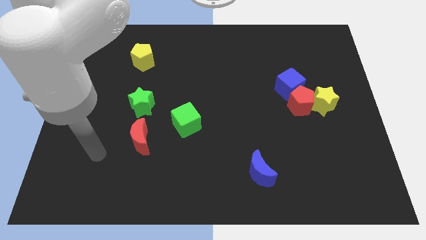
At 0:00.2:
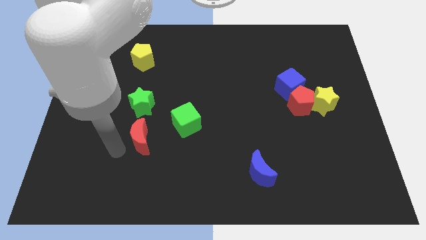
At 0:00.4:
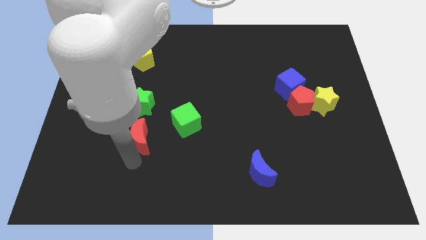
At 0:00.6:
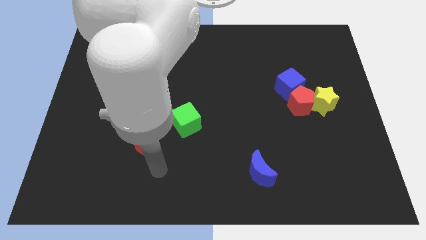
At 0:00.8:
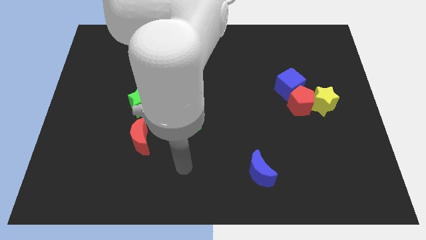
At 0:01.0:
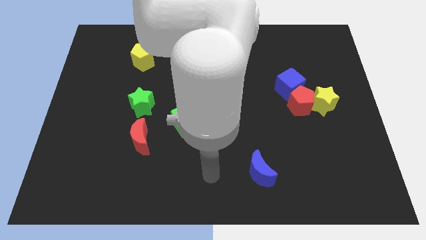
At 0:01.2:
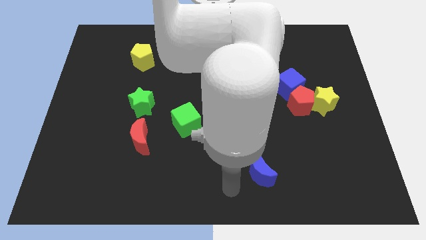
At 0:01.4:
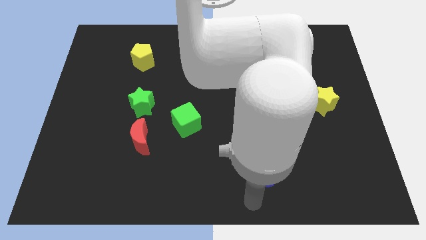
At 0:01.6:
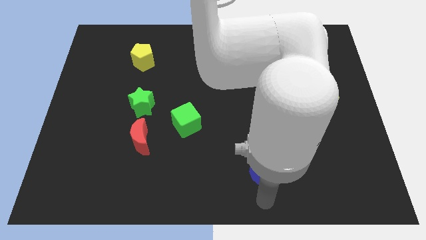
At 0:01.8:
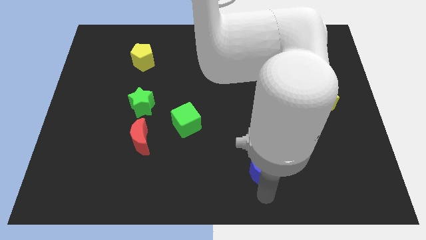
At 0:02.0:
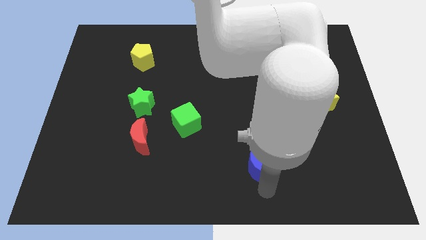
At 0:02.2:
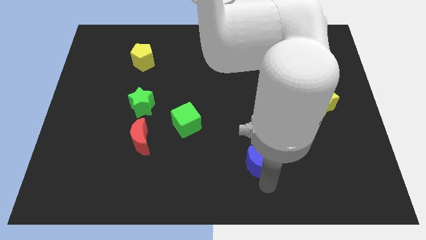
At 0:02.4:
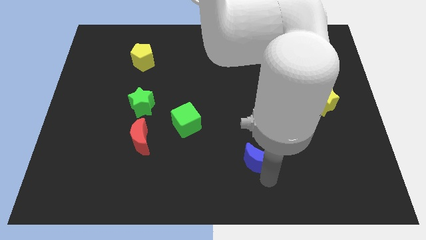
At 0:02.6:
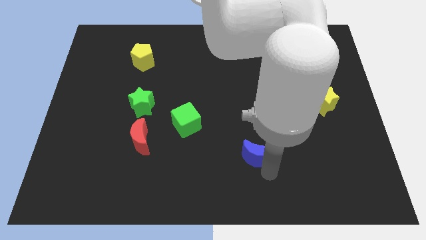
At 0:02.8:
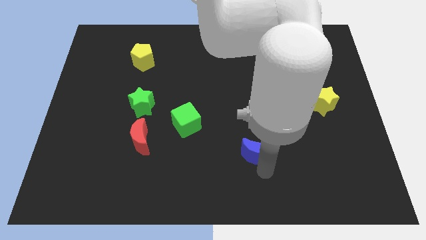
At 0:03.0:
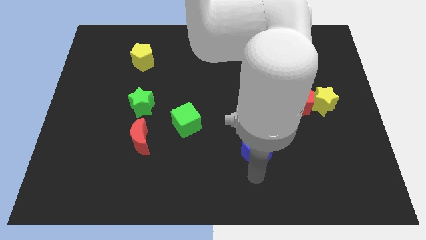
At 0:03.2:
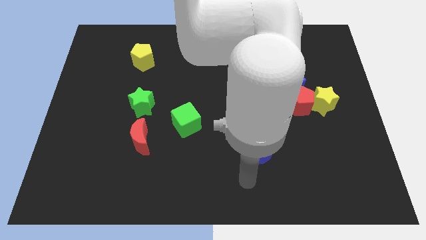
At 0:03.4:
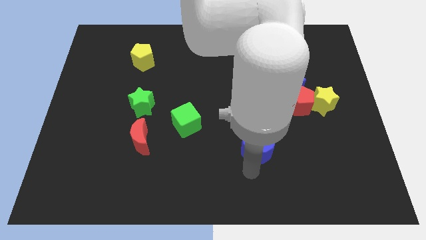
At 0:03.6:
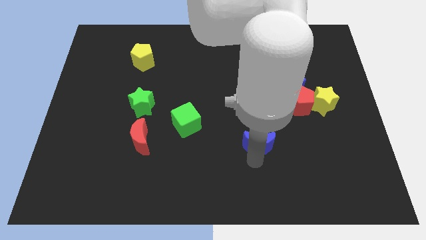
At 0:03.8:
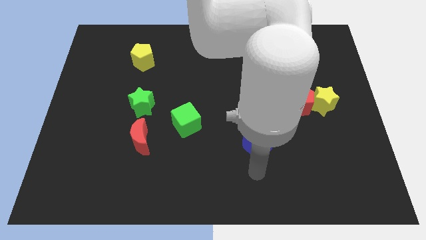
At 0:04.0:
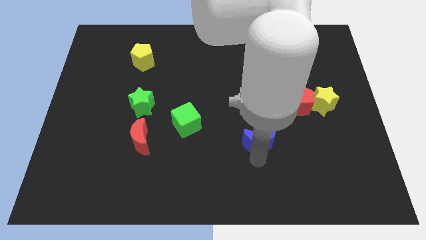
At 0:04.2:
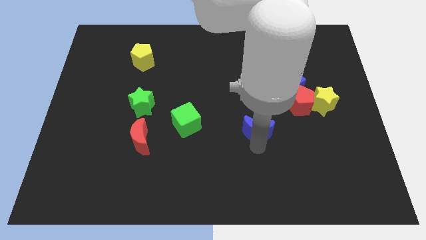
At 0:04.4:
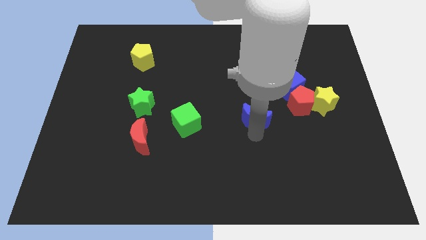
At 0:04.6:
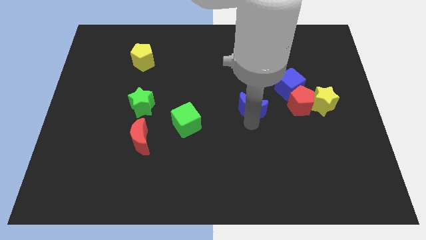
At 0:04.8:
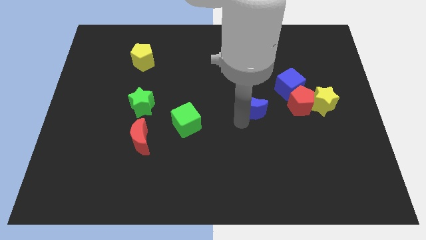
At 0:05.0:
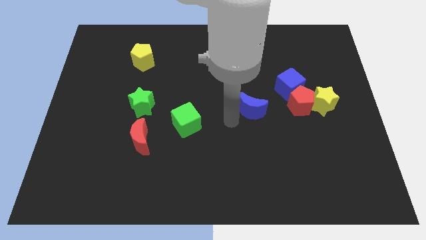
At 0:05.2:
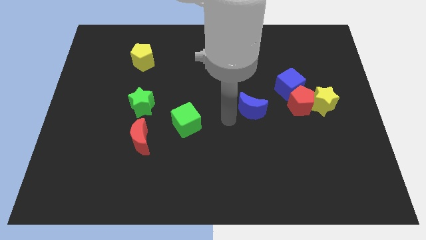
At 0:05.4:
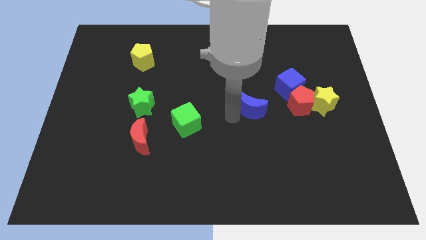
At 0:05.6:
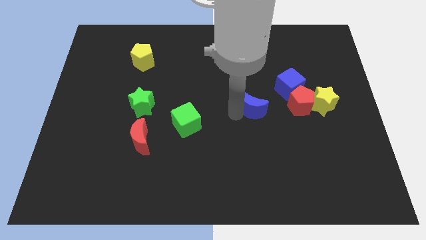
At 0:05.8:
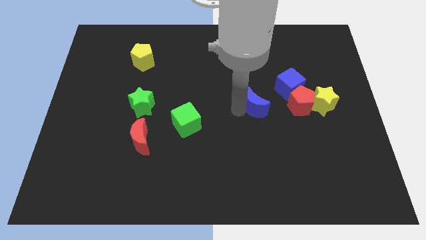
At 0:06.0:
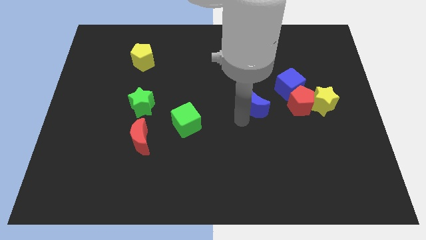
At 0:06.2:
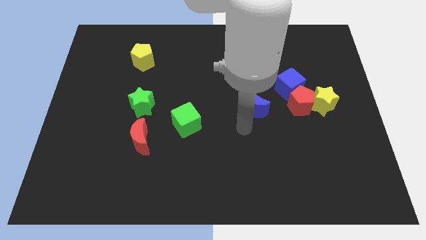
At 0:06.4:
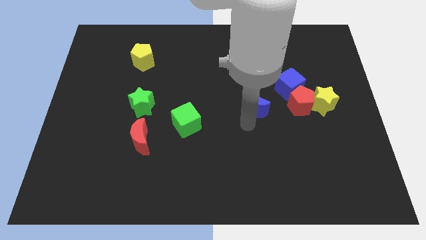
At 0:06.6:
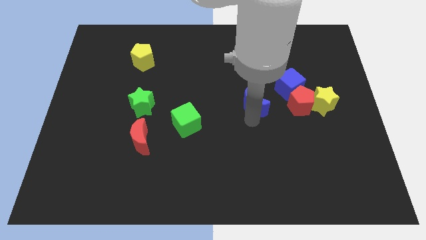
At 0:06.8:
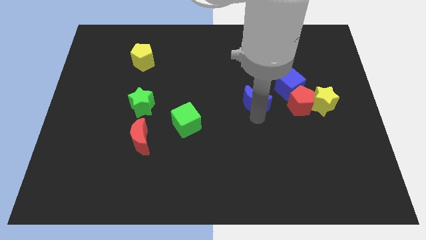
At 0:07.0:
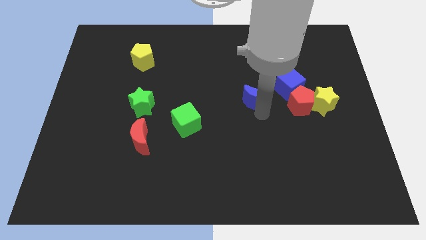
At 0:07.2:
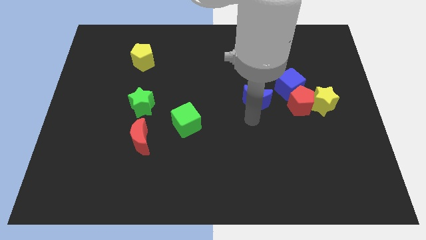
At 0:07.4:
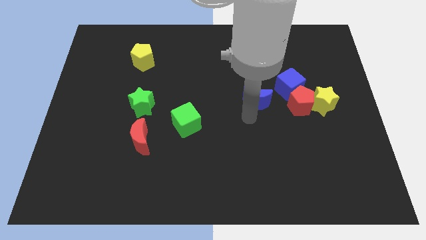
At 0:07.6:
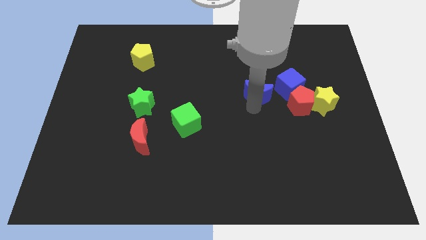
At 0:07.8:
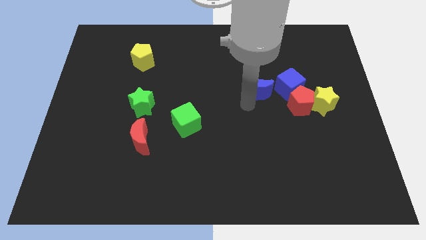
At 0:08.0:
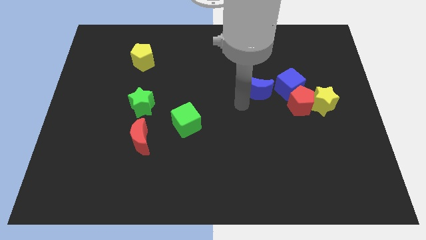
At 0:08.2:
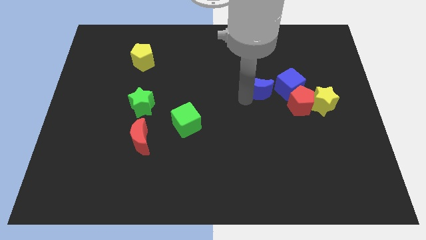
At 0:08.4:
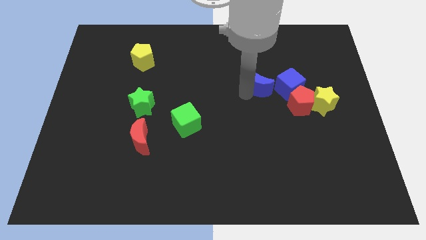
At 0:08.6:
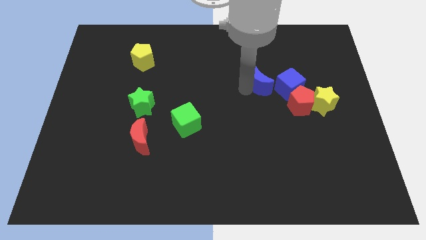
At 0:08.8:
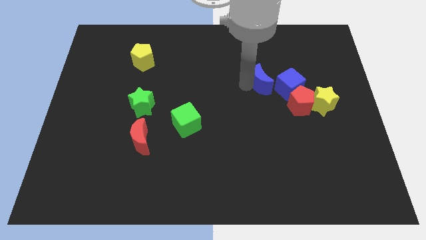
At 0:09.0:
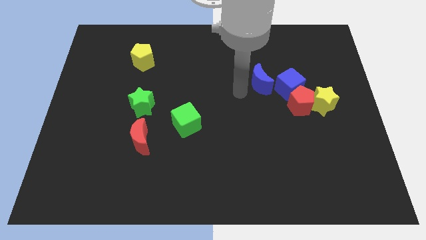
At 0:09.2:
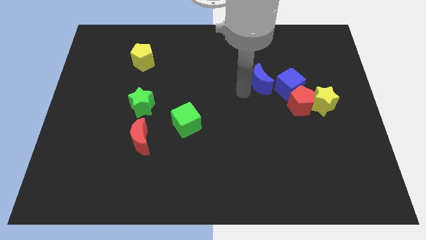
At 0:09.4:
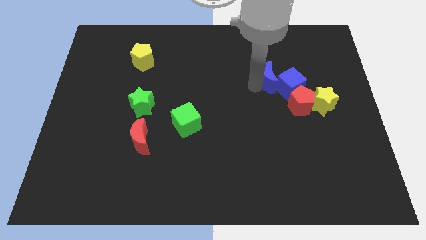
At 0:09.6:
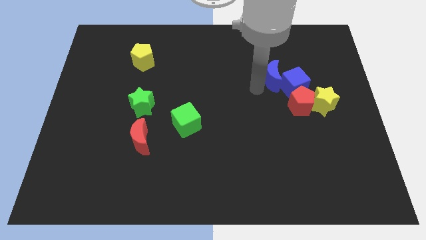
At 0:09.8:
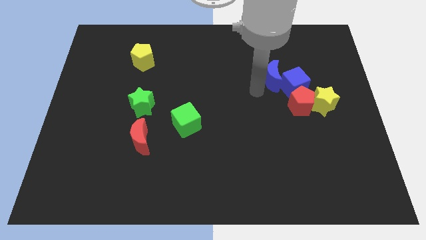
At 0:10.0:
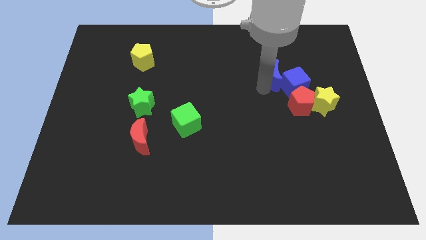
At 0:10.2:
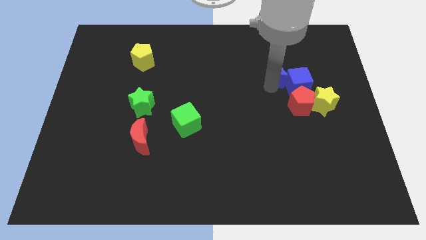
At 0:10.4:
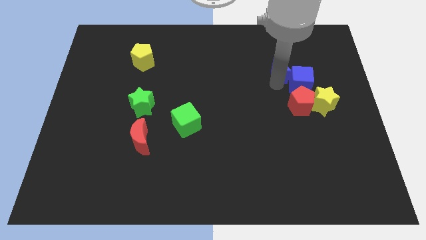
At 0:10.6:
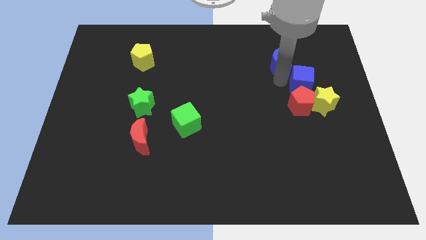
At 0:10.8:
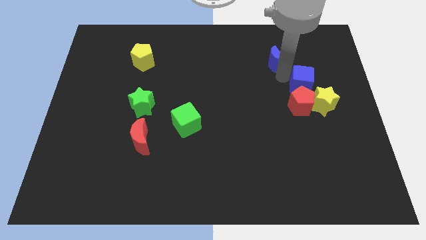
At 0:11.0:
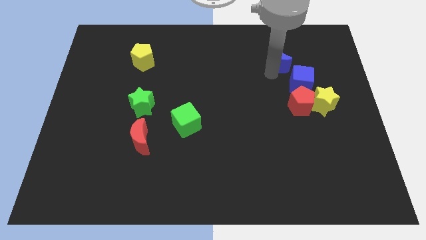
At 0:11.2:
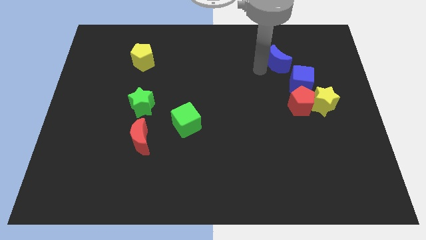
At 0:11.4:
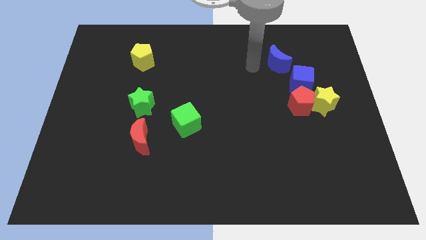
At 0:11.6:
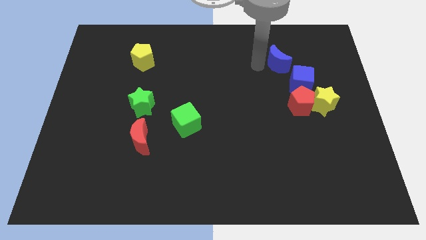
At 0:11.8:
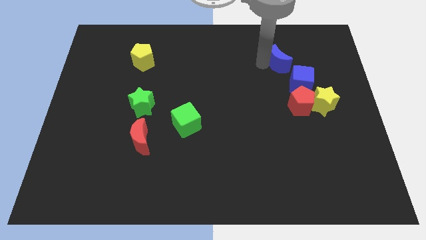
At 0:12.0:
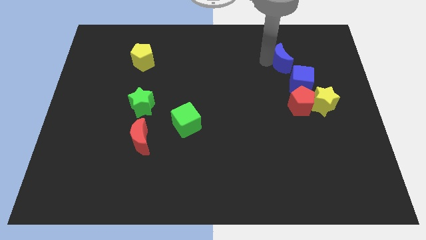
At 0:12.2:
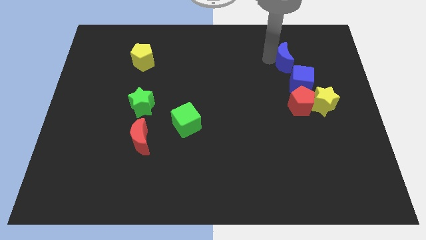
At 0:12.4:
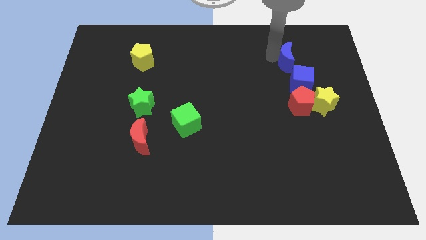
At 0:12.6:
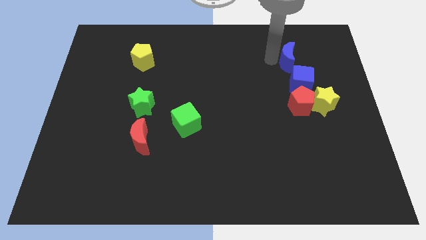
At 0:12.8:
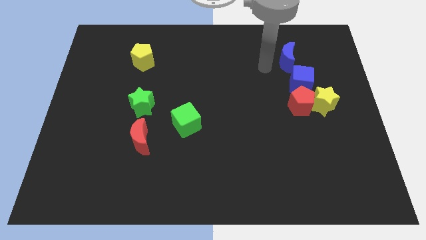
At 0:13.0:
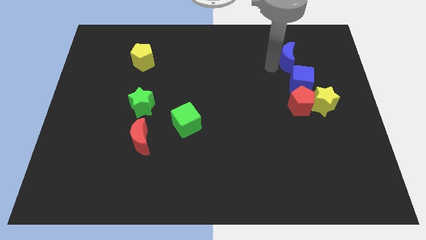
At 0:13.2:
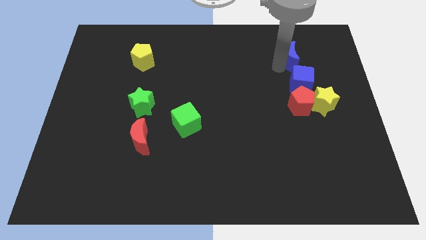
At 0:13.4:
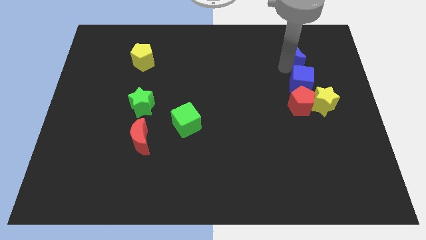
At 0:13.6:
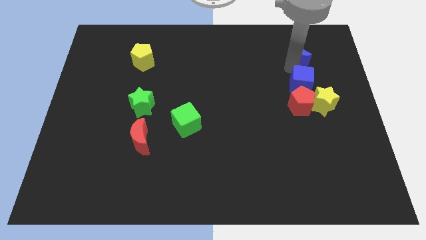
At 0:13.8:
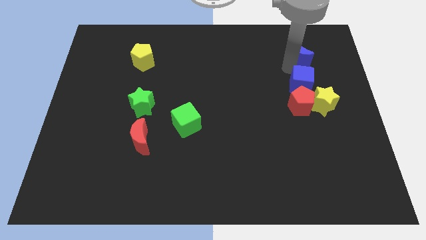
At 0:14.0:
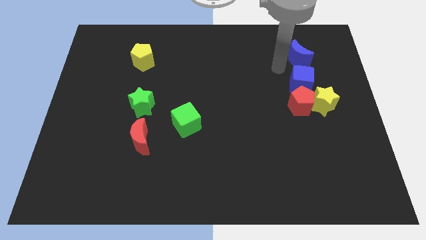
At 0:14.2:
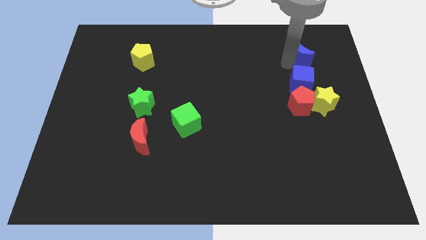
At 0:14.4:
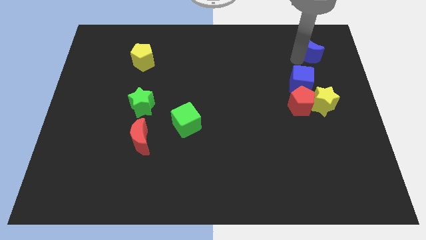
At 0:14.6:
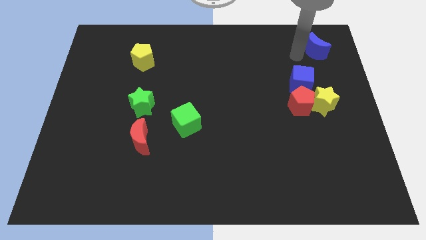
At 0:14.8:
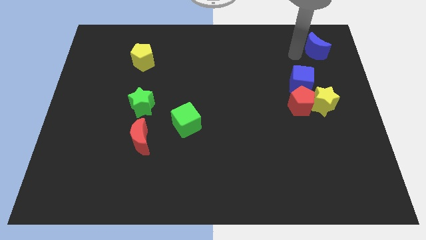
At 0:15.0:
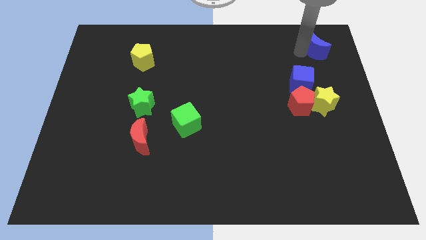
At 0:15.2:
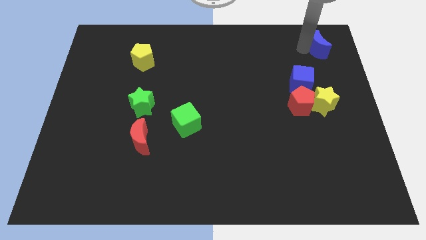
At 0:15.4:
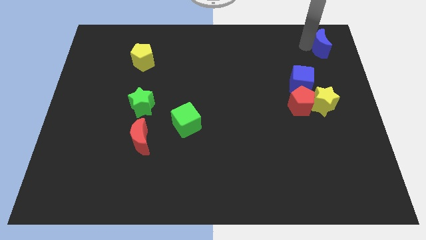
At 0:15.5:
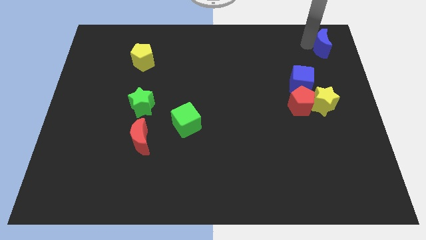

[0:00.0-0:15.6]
push the blue moon to the top right corner
